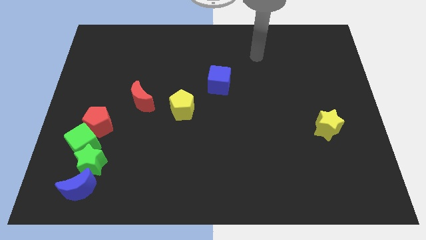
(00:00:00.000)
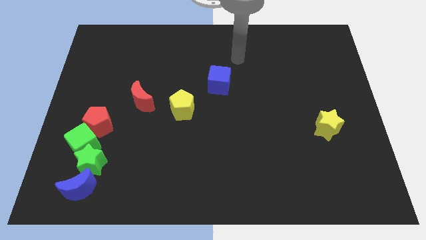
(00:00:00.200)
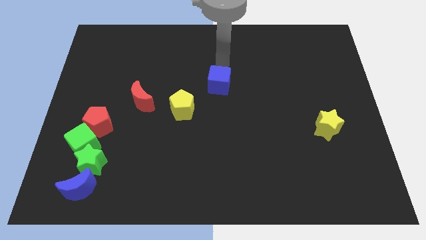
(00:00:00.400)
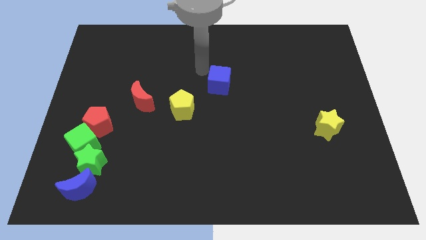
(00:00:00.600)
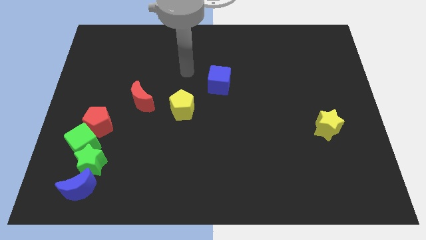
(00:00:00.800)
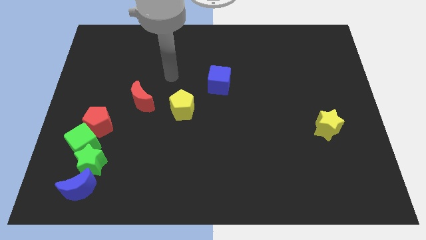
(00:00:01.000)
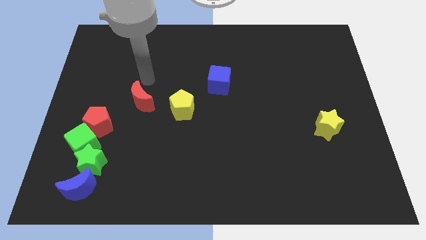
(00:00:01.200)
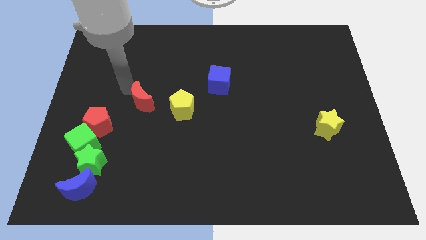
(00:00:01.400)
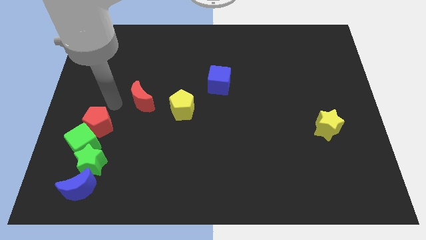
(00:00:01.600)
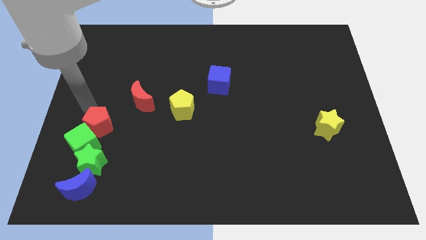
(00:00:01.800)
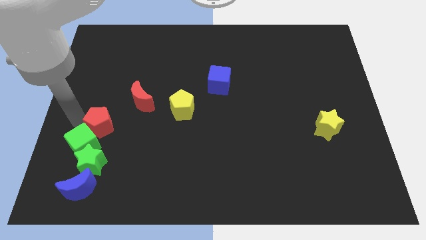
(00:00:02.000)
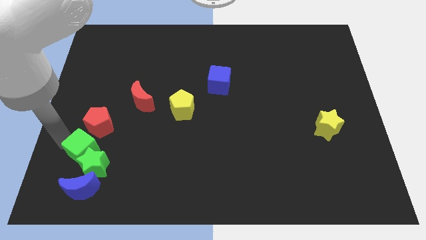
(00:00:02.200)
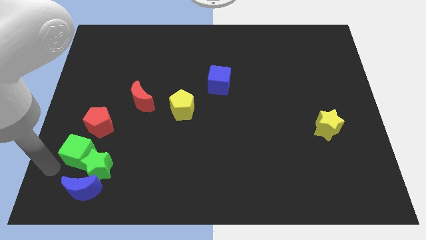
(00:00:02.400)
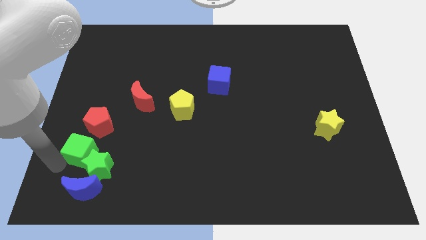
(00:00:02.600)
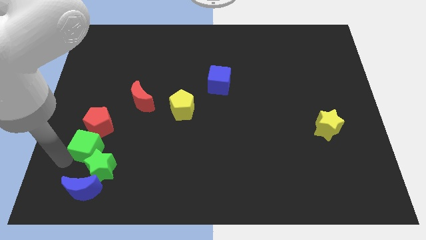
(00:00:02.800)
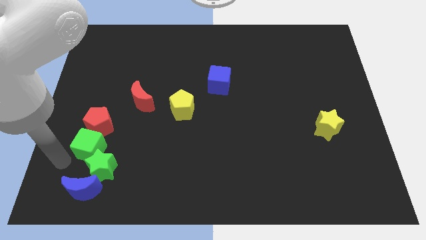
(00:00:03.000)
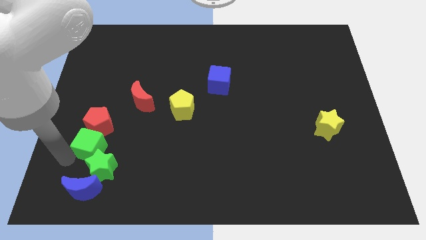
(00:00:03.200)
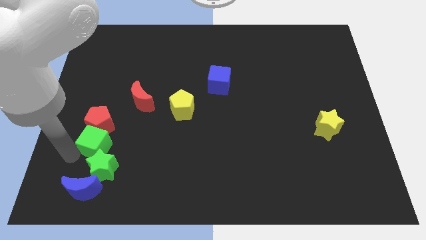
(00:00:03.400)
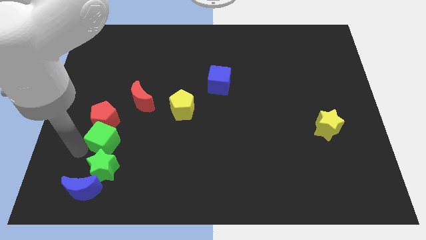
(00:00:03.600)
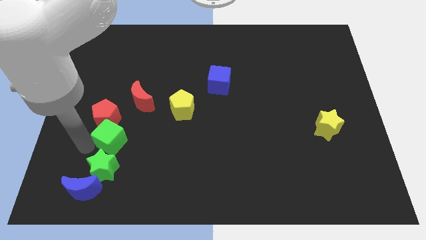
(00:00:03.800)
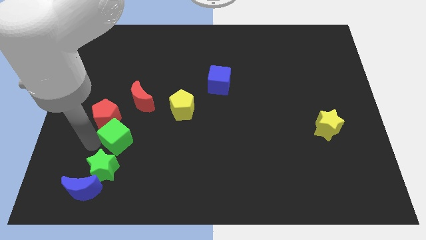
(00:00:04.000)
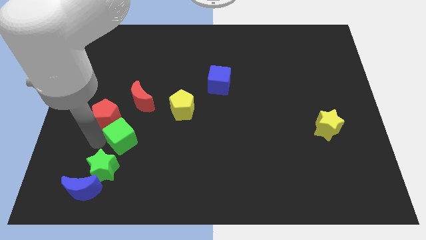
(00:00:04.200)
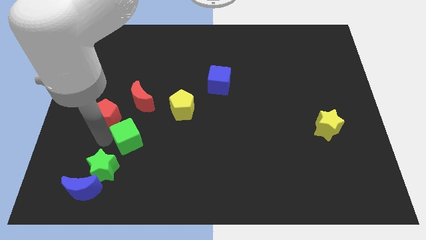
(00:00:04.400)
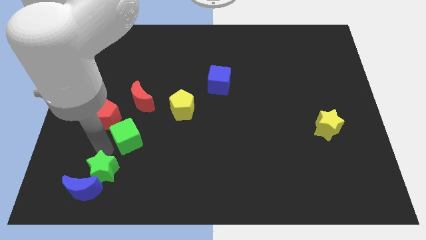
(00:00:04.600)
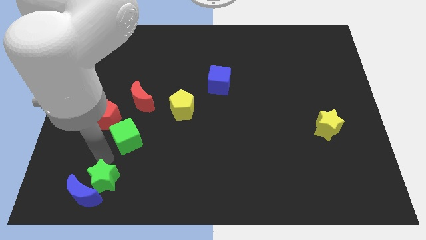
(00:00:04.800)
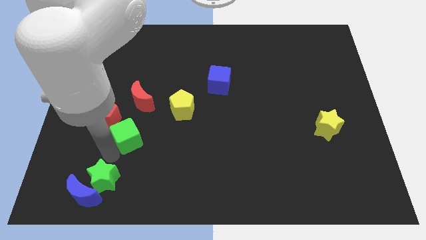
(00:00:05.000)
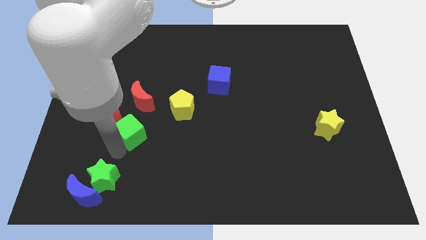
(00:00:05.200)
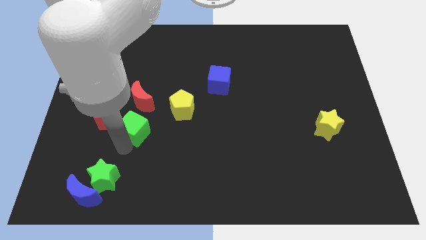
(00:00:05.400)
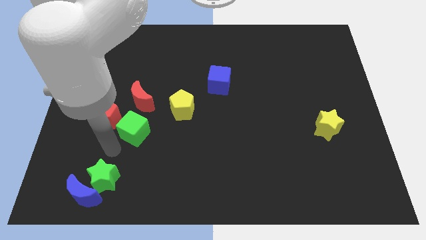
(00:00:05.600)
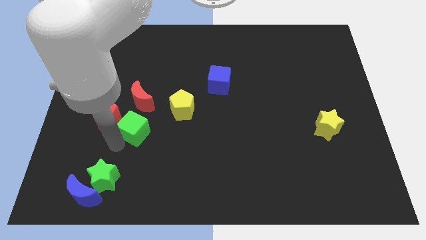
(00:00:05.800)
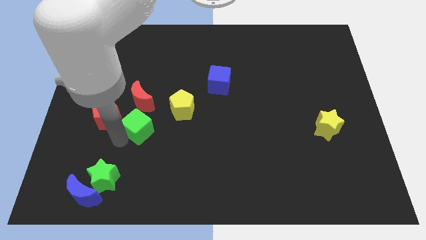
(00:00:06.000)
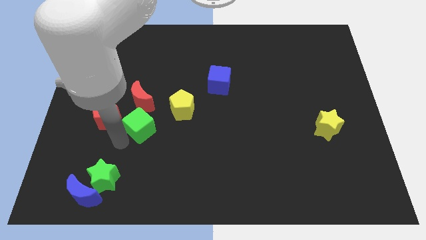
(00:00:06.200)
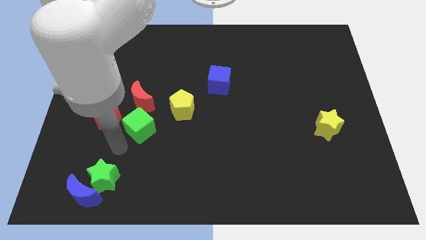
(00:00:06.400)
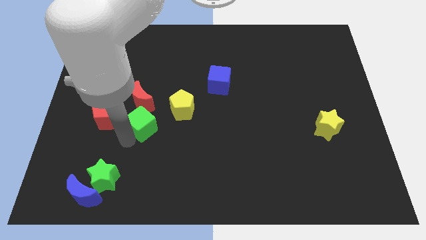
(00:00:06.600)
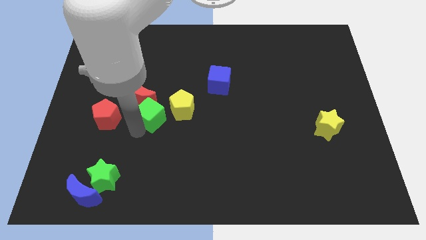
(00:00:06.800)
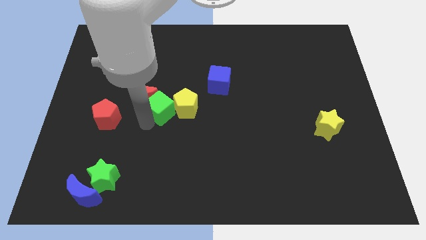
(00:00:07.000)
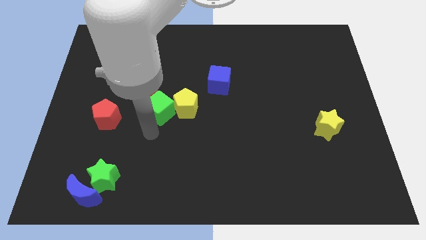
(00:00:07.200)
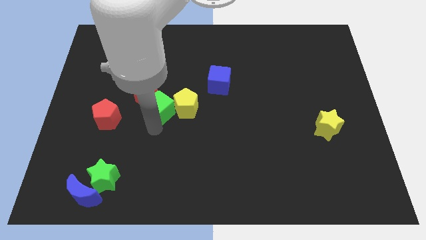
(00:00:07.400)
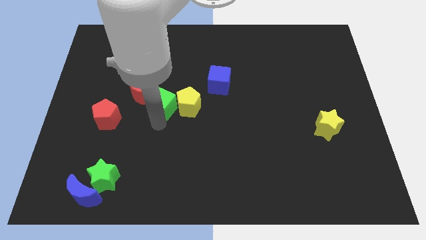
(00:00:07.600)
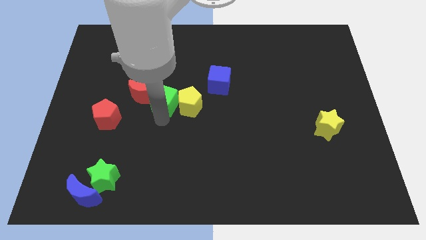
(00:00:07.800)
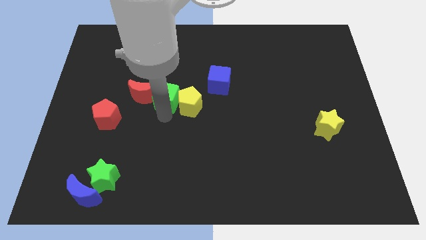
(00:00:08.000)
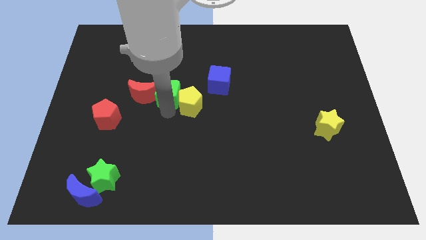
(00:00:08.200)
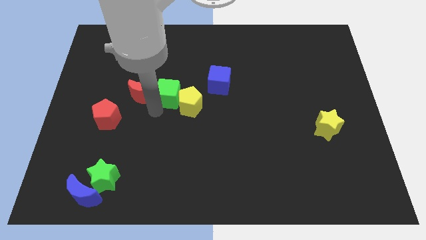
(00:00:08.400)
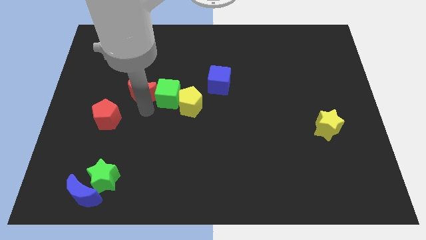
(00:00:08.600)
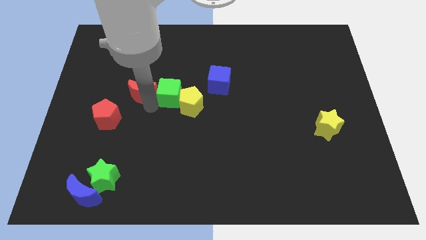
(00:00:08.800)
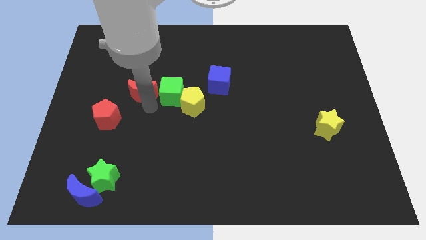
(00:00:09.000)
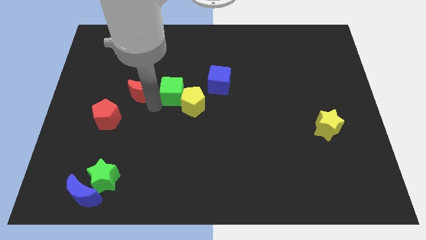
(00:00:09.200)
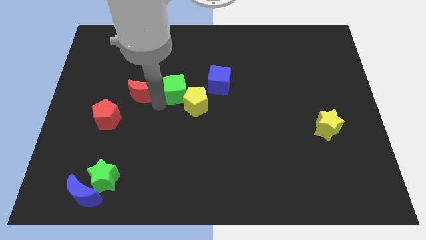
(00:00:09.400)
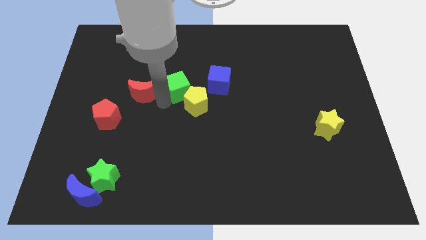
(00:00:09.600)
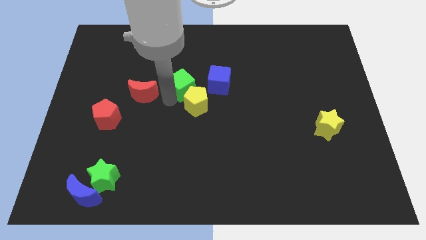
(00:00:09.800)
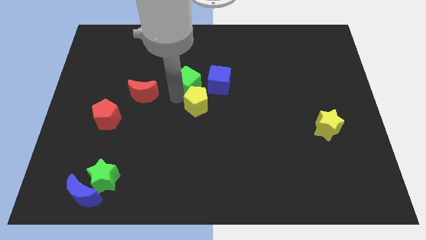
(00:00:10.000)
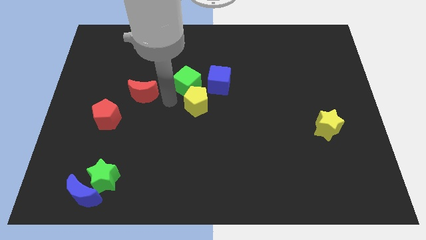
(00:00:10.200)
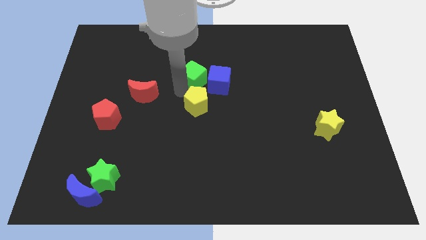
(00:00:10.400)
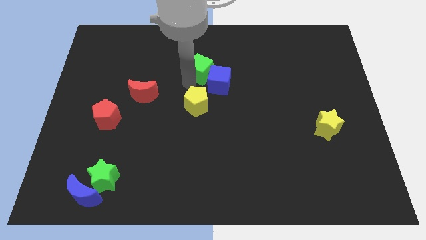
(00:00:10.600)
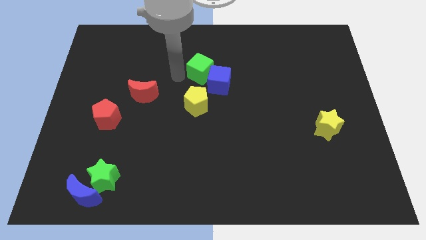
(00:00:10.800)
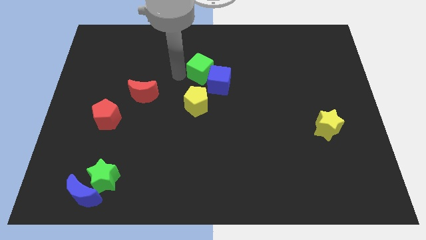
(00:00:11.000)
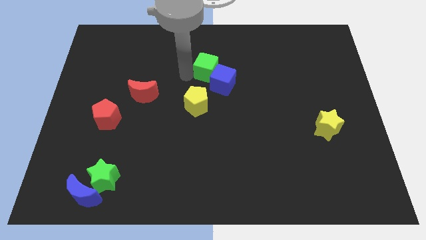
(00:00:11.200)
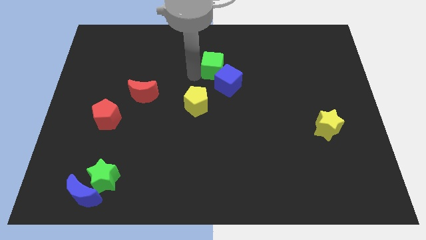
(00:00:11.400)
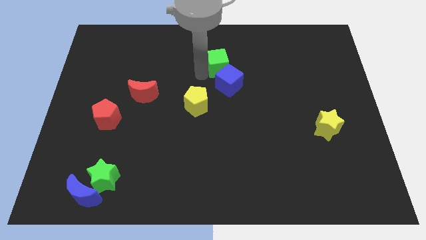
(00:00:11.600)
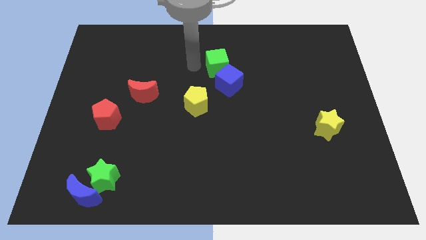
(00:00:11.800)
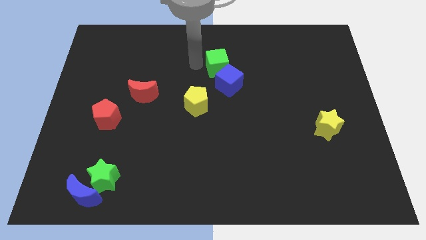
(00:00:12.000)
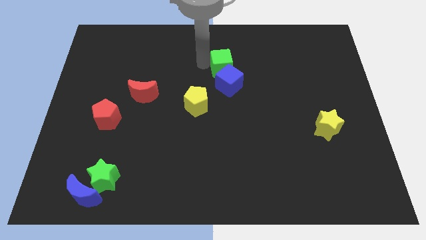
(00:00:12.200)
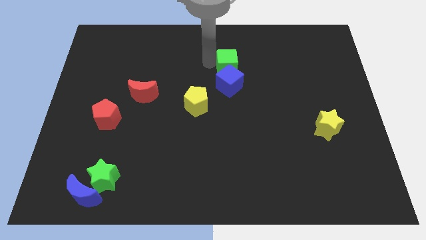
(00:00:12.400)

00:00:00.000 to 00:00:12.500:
move the green cube diagonally up and to the right of the blue cube

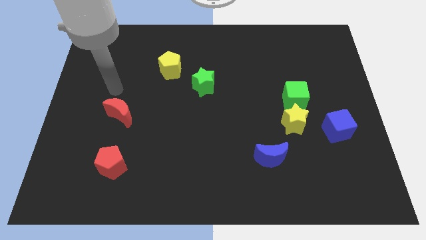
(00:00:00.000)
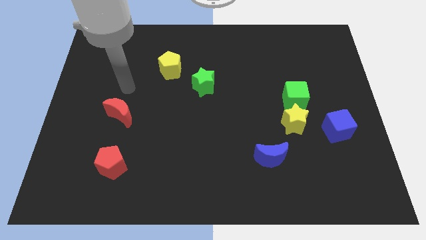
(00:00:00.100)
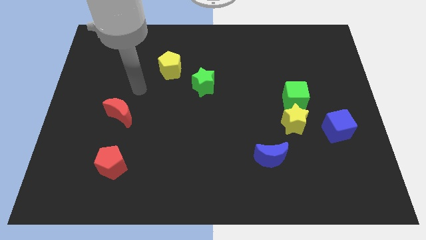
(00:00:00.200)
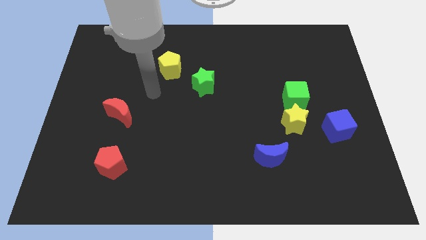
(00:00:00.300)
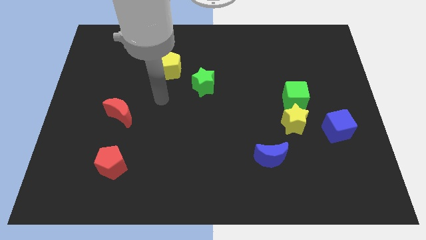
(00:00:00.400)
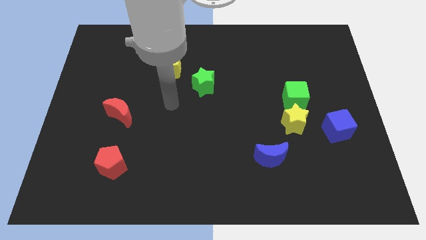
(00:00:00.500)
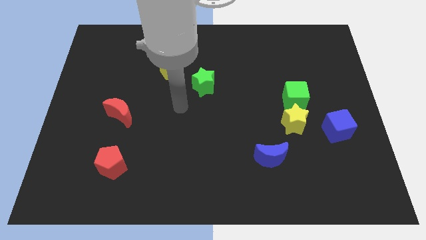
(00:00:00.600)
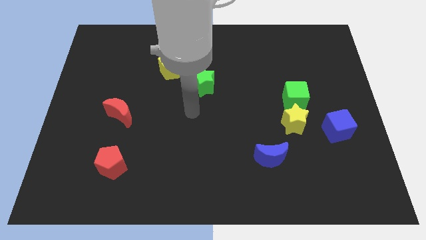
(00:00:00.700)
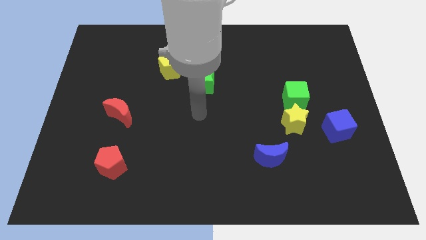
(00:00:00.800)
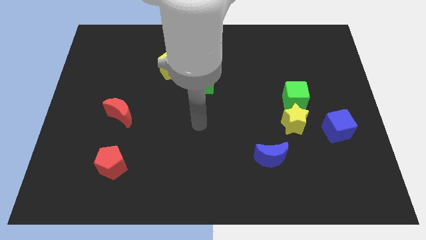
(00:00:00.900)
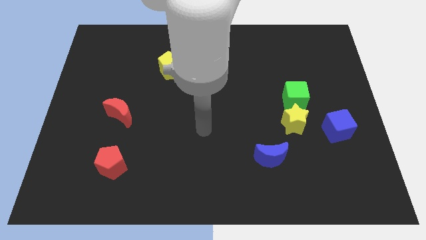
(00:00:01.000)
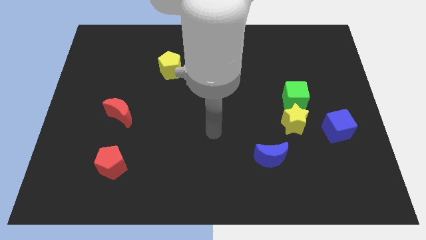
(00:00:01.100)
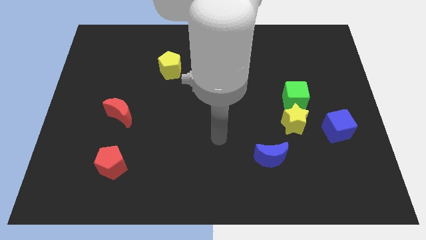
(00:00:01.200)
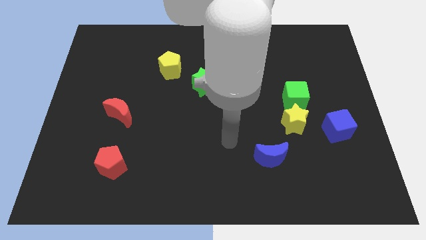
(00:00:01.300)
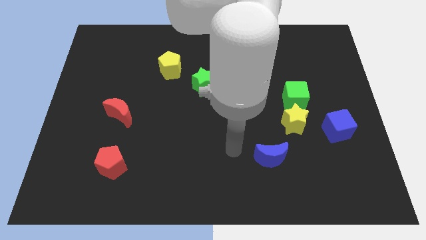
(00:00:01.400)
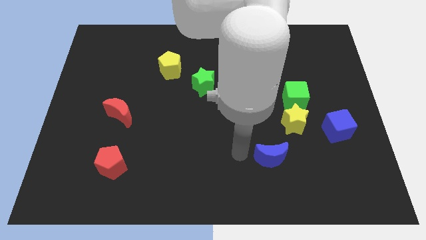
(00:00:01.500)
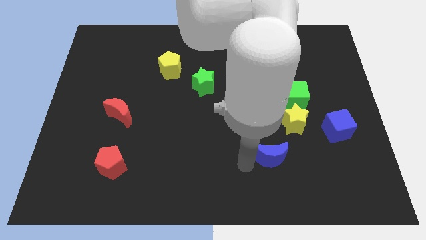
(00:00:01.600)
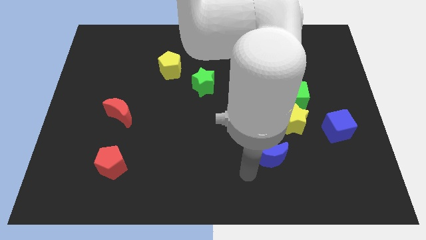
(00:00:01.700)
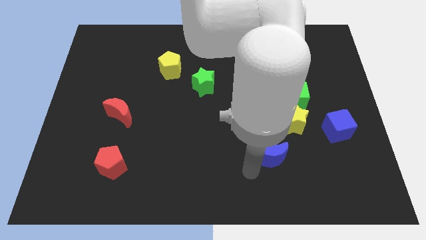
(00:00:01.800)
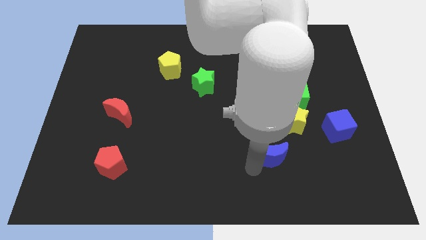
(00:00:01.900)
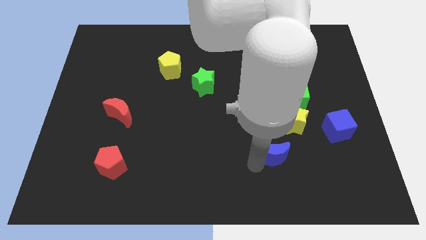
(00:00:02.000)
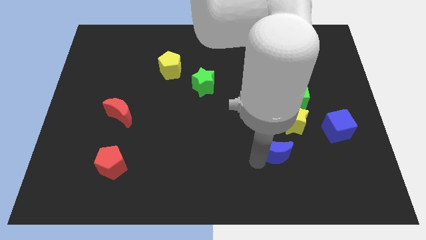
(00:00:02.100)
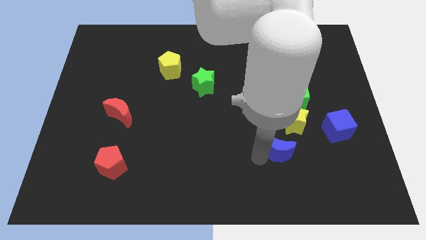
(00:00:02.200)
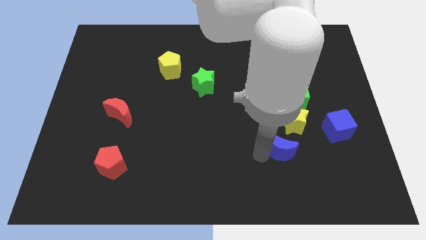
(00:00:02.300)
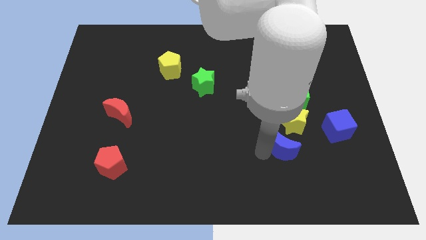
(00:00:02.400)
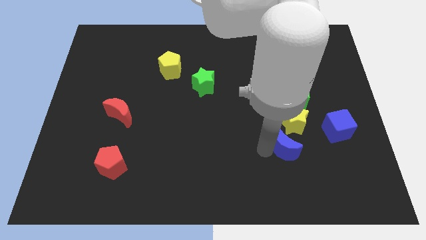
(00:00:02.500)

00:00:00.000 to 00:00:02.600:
move the blue moon below the green cube
